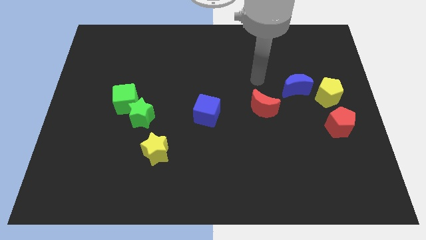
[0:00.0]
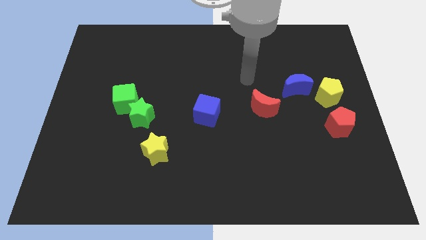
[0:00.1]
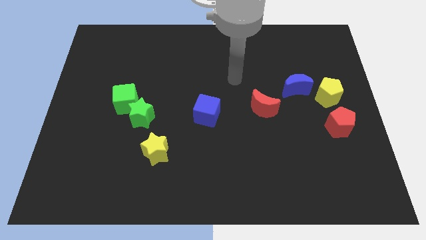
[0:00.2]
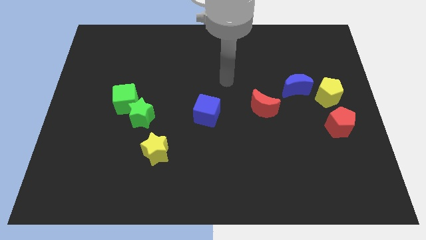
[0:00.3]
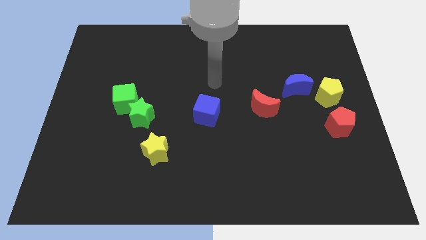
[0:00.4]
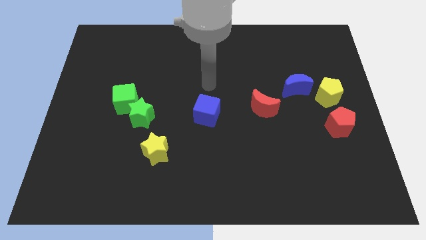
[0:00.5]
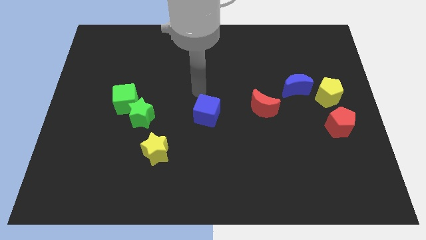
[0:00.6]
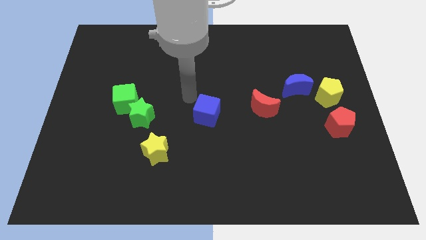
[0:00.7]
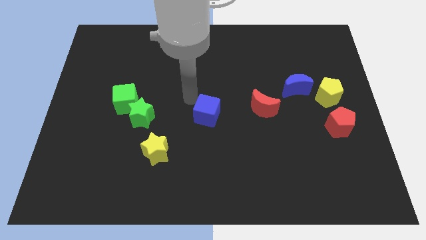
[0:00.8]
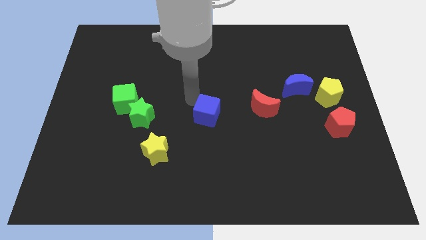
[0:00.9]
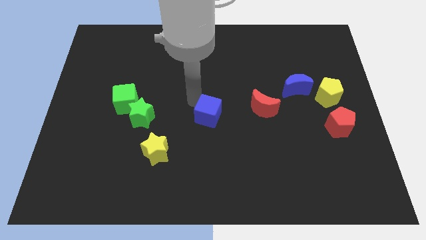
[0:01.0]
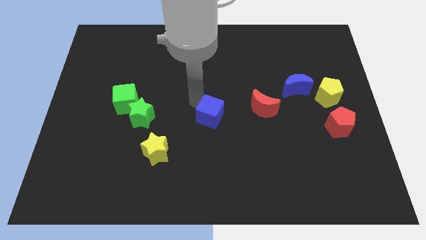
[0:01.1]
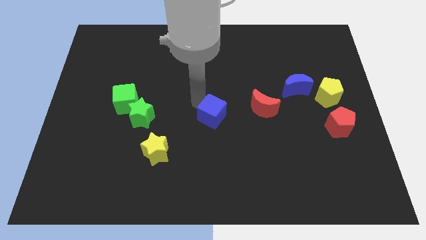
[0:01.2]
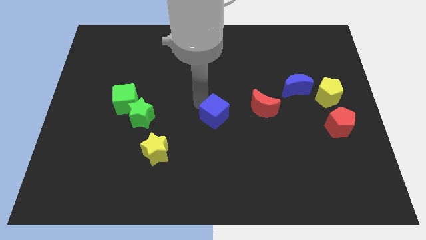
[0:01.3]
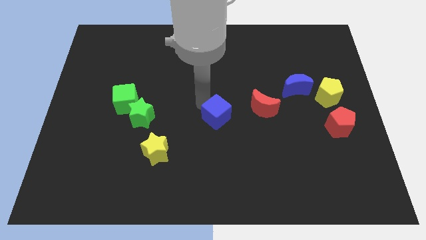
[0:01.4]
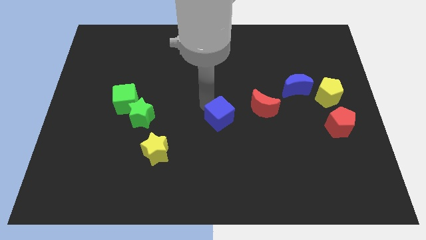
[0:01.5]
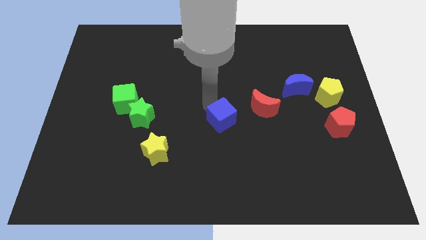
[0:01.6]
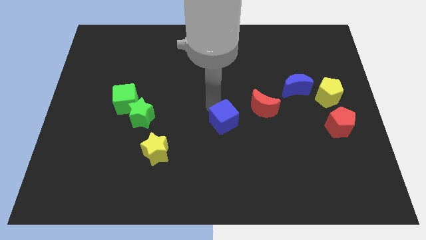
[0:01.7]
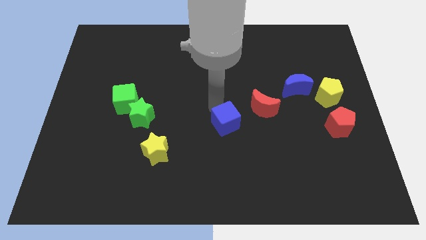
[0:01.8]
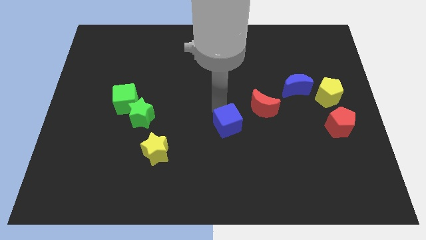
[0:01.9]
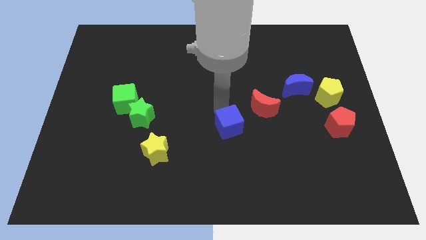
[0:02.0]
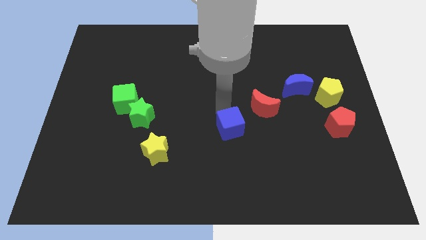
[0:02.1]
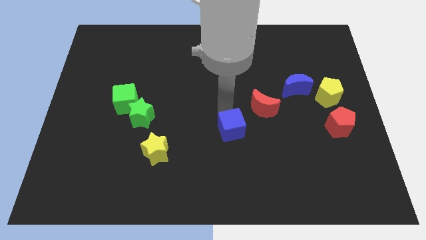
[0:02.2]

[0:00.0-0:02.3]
push the blue cube down and then to the right somewhat

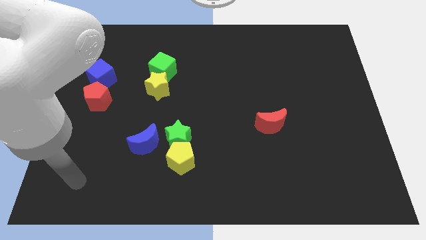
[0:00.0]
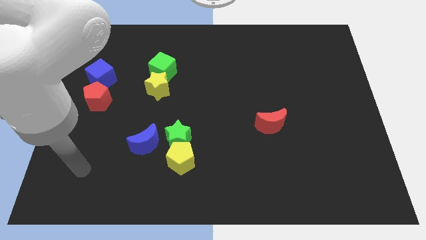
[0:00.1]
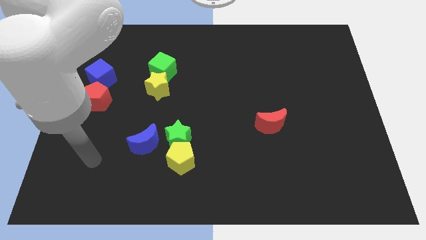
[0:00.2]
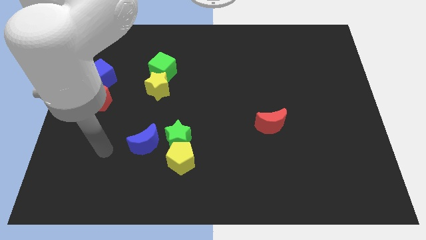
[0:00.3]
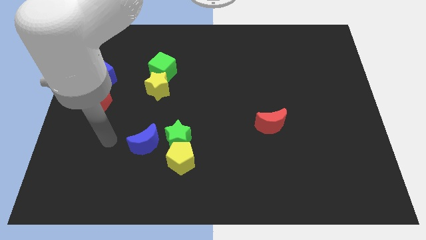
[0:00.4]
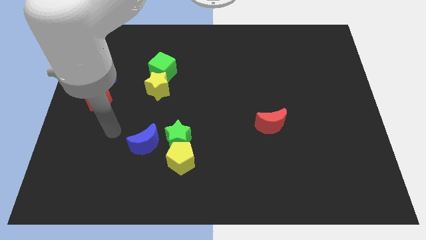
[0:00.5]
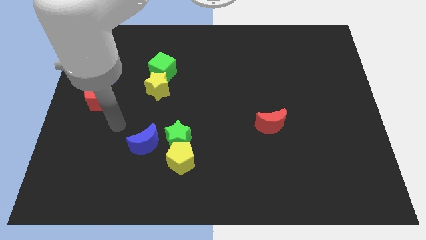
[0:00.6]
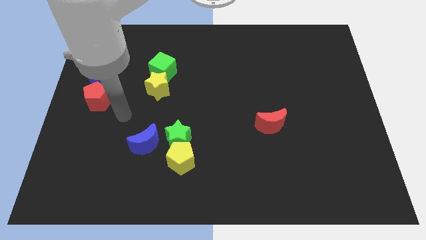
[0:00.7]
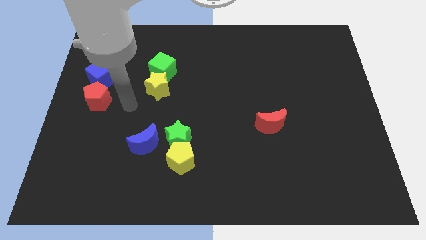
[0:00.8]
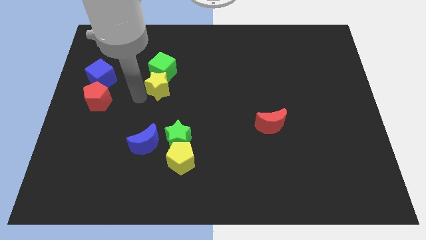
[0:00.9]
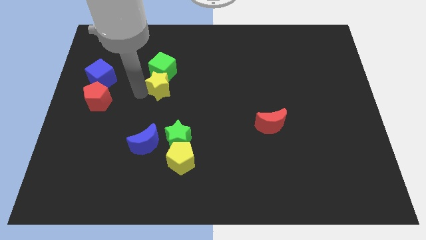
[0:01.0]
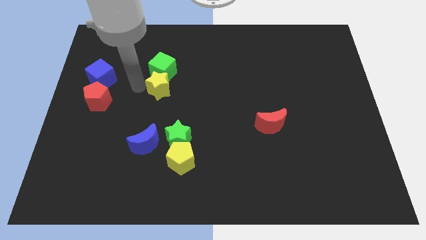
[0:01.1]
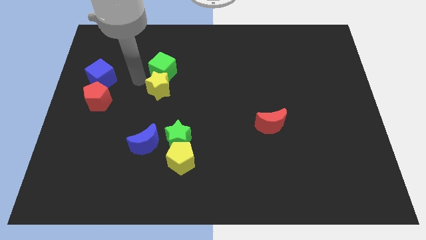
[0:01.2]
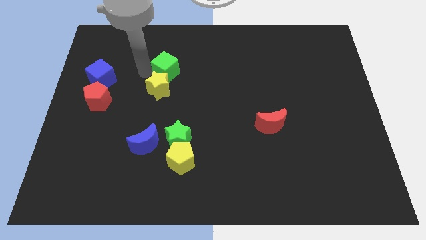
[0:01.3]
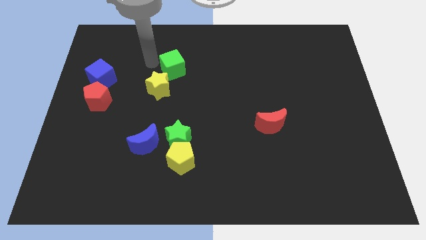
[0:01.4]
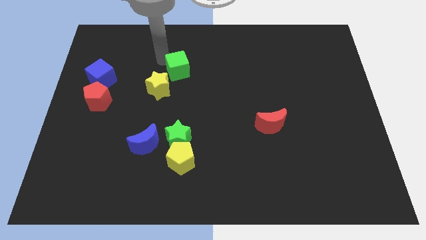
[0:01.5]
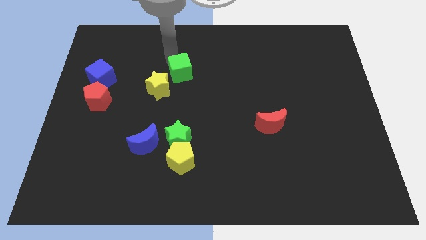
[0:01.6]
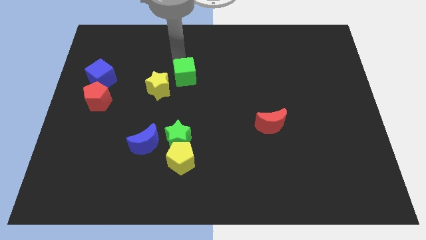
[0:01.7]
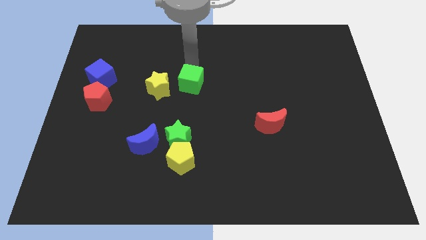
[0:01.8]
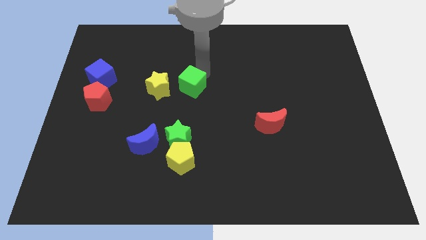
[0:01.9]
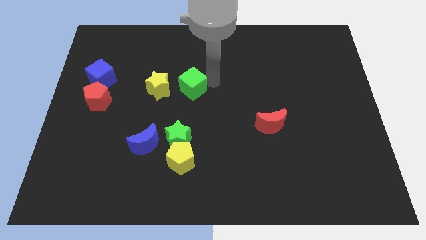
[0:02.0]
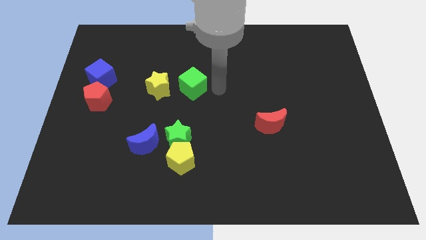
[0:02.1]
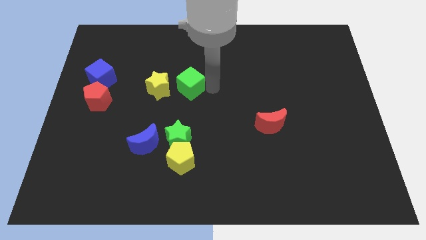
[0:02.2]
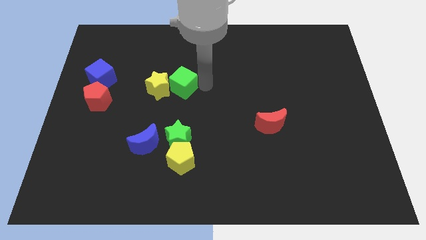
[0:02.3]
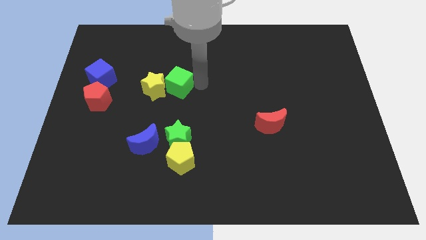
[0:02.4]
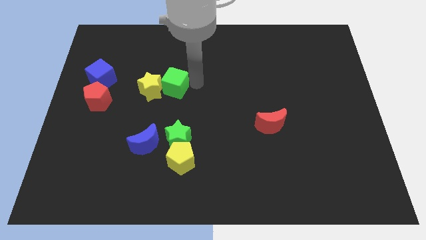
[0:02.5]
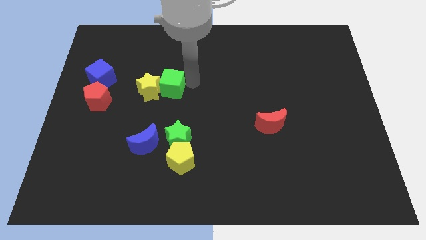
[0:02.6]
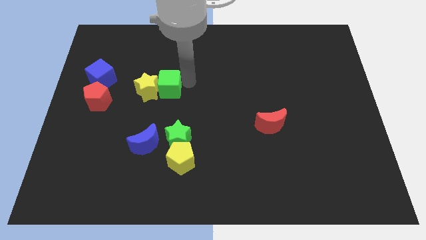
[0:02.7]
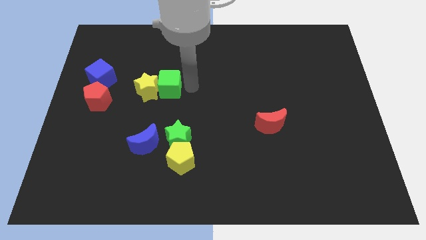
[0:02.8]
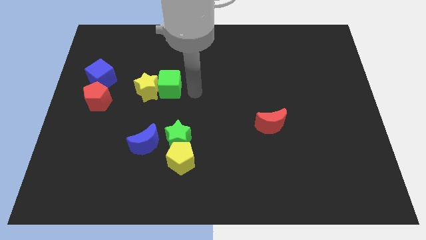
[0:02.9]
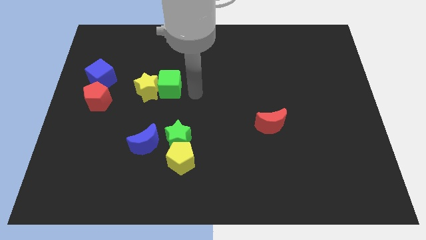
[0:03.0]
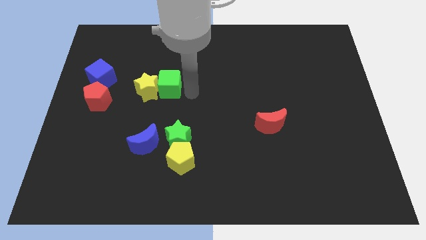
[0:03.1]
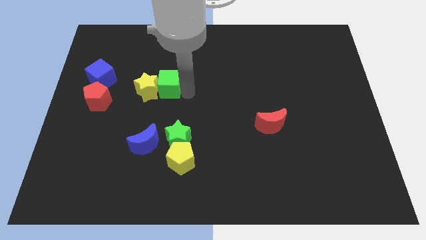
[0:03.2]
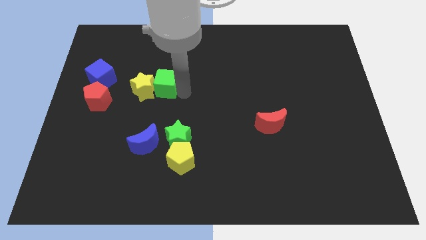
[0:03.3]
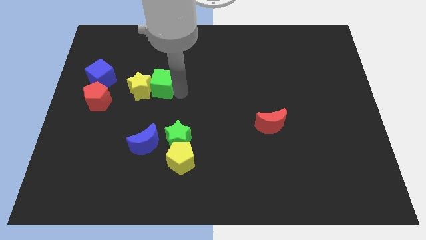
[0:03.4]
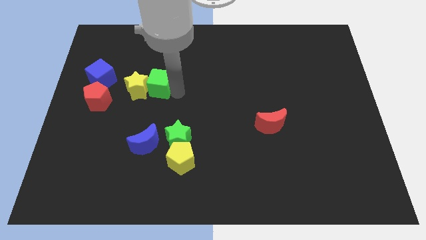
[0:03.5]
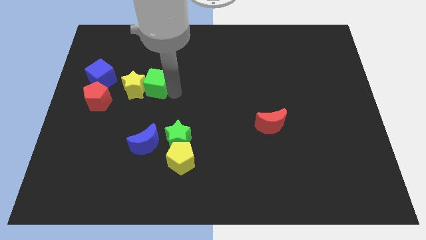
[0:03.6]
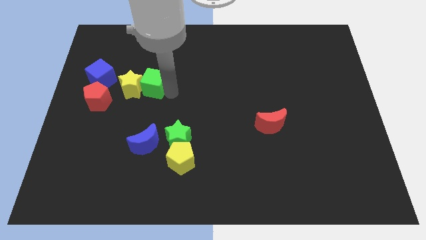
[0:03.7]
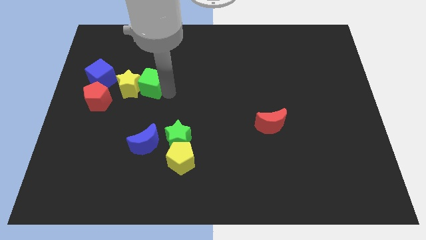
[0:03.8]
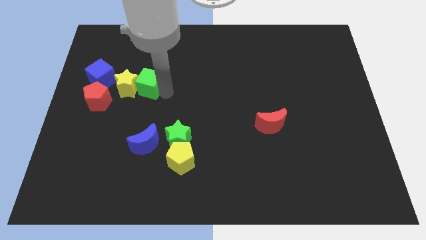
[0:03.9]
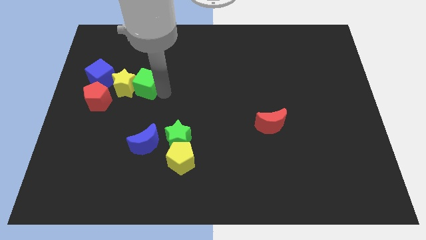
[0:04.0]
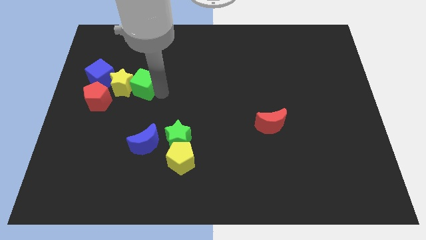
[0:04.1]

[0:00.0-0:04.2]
push the green cube downwards and then left a little

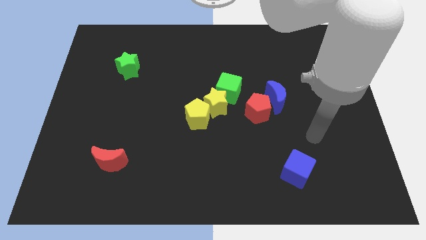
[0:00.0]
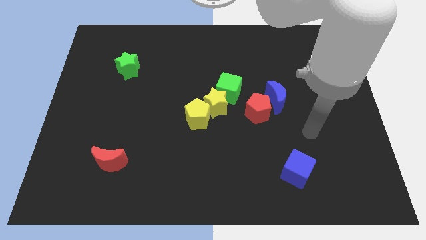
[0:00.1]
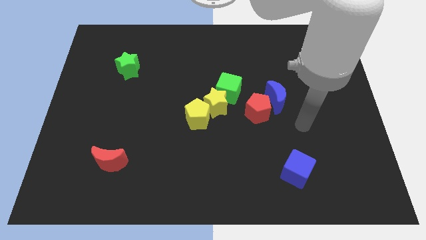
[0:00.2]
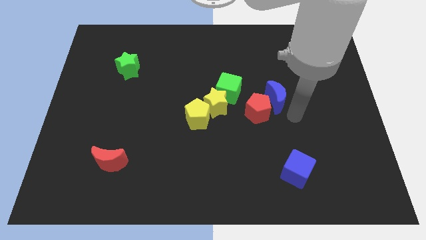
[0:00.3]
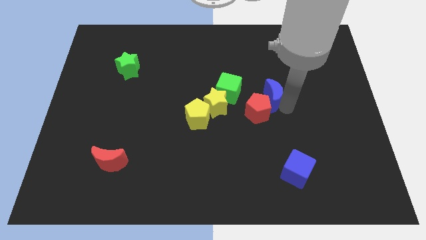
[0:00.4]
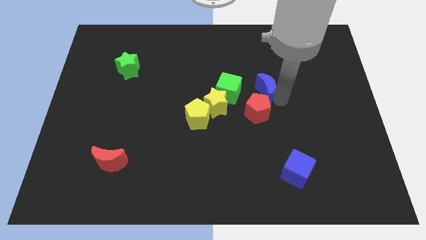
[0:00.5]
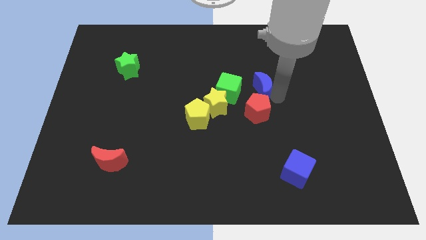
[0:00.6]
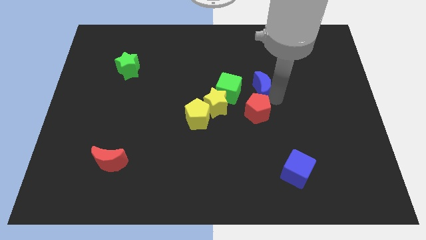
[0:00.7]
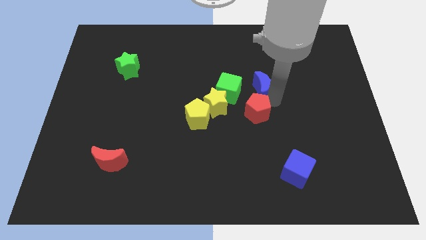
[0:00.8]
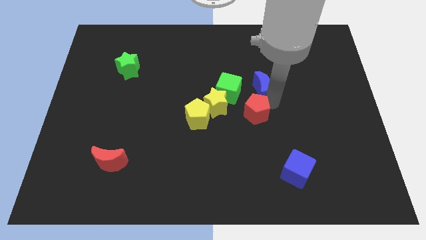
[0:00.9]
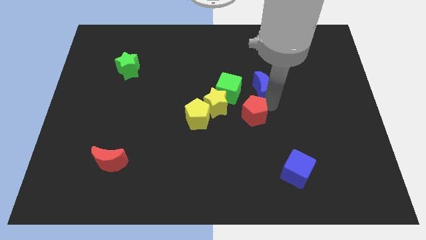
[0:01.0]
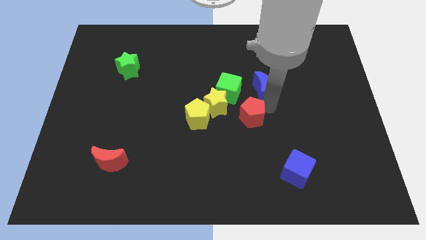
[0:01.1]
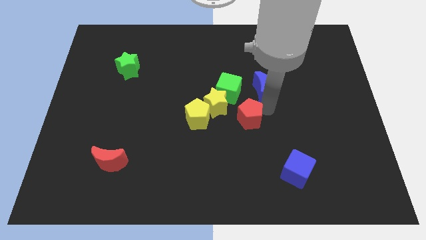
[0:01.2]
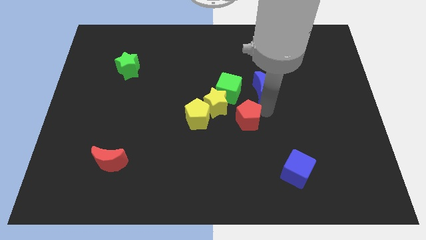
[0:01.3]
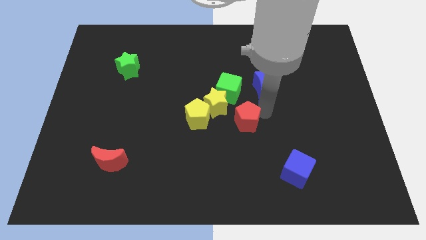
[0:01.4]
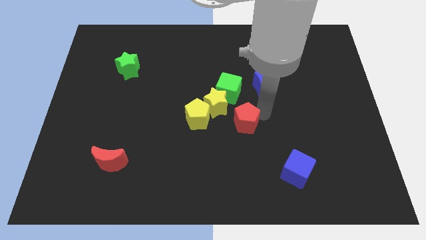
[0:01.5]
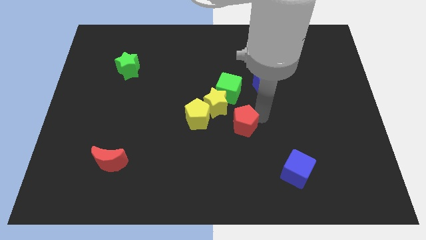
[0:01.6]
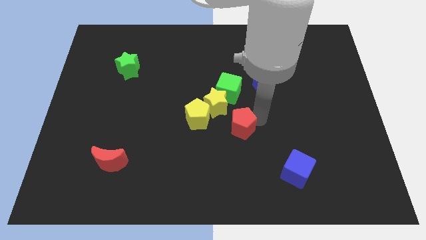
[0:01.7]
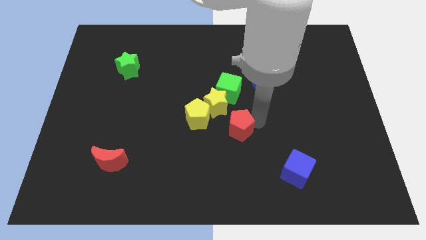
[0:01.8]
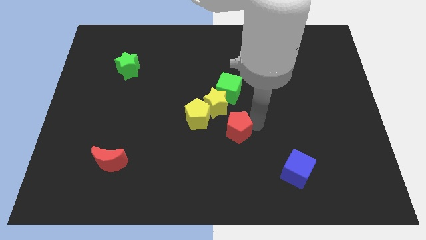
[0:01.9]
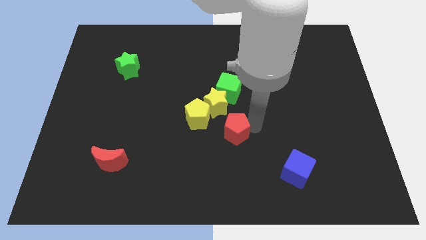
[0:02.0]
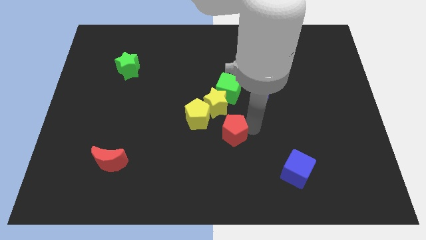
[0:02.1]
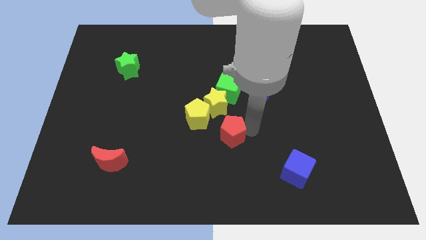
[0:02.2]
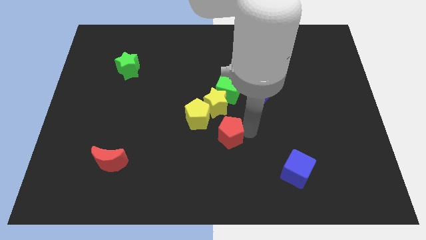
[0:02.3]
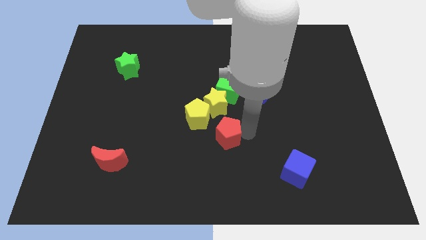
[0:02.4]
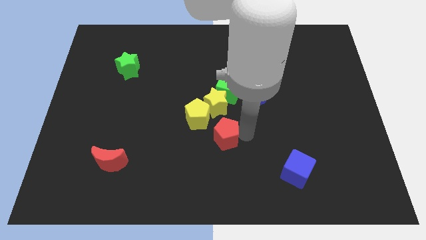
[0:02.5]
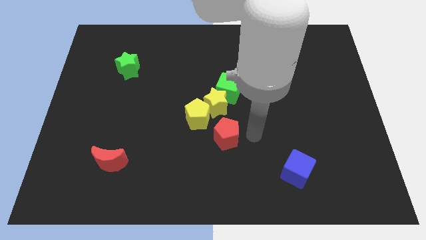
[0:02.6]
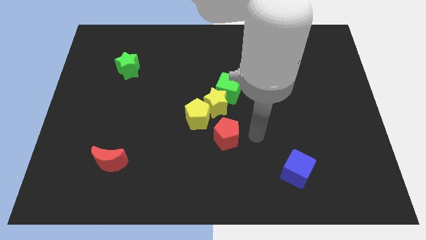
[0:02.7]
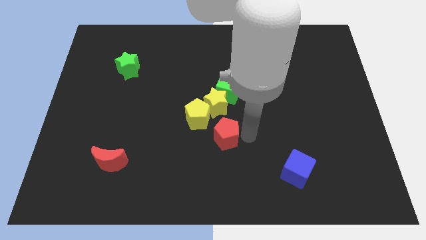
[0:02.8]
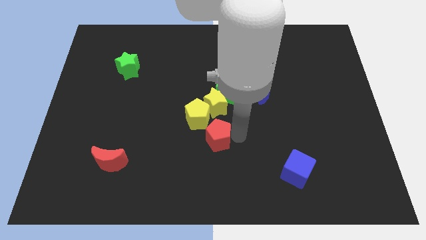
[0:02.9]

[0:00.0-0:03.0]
move the red pentagon to the left a little
